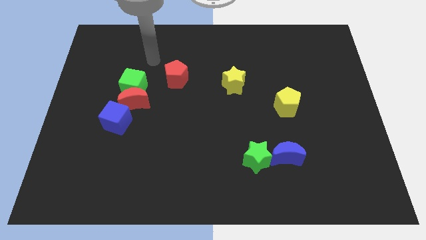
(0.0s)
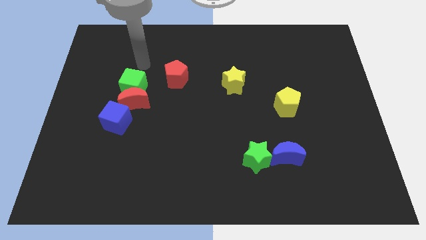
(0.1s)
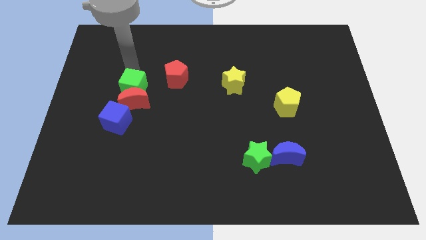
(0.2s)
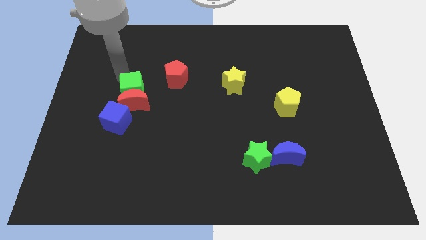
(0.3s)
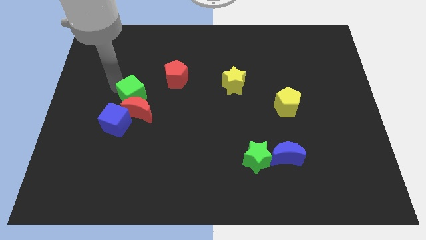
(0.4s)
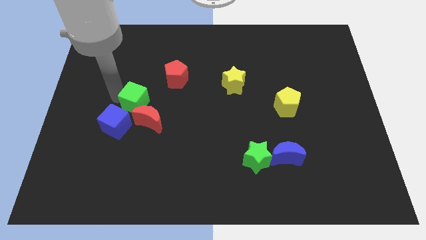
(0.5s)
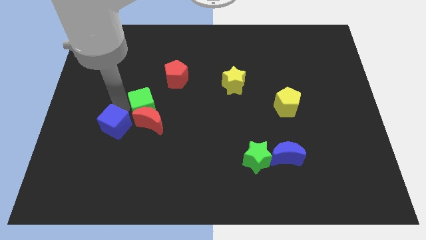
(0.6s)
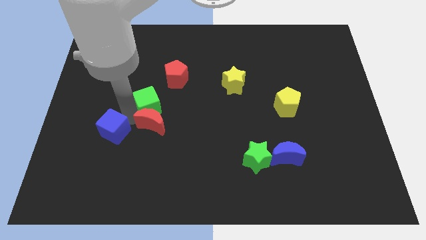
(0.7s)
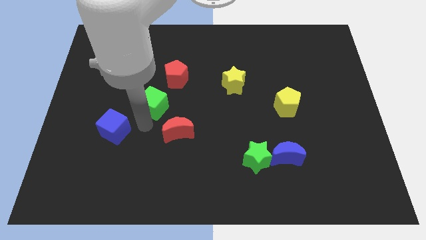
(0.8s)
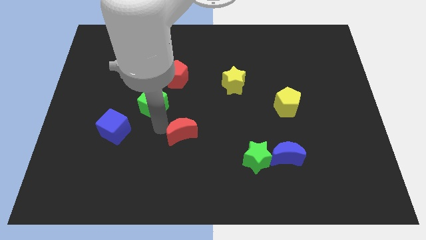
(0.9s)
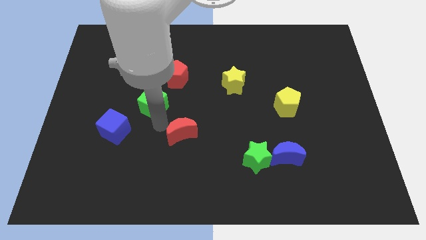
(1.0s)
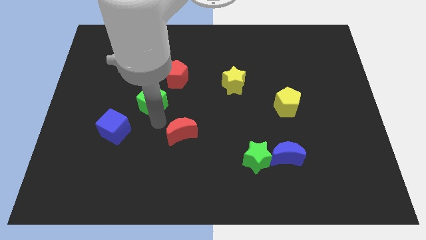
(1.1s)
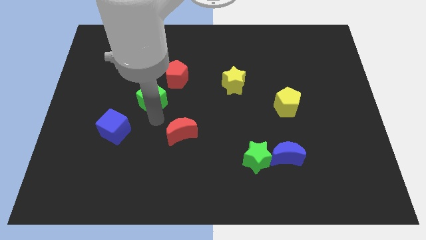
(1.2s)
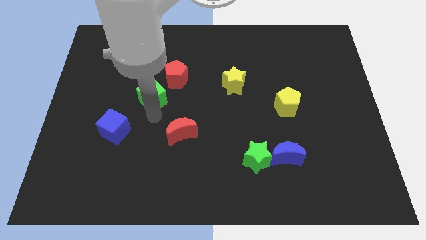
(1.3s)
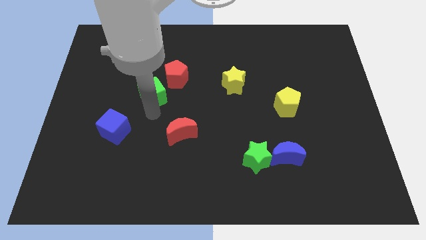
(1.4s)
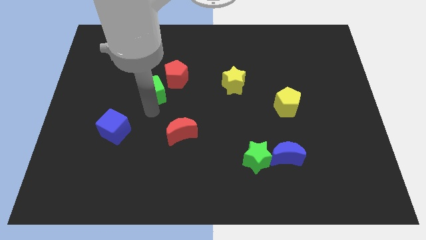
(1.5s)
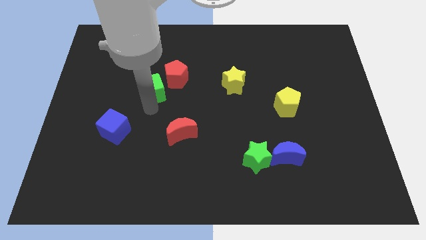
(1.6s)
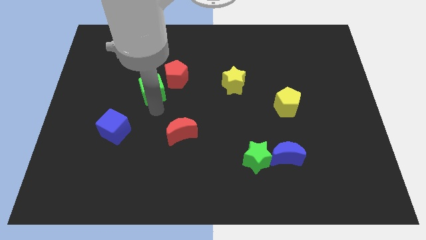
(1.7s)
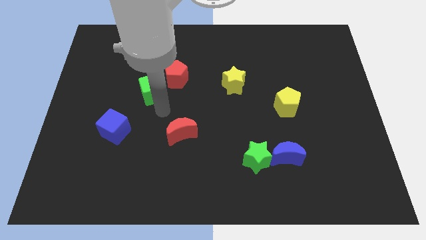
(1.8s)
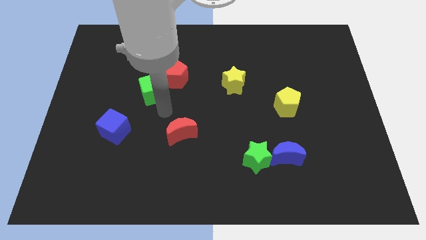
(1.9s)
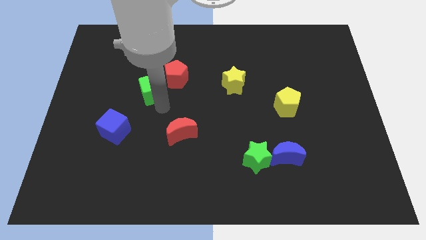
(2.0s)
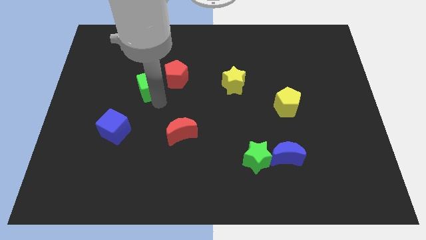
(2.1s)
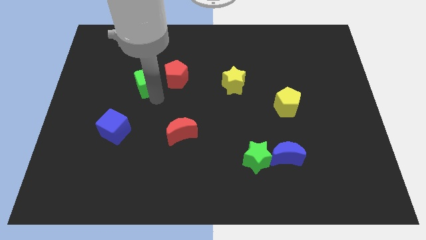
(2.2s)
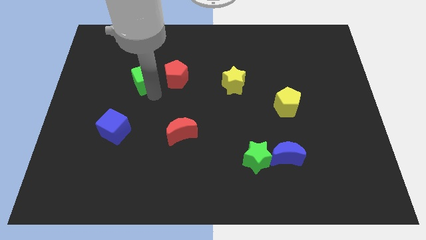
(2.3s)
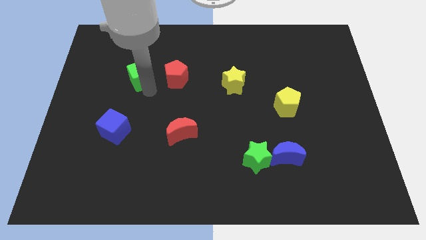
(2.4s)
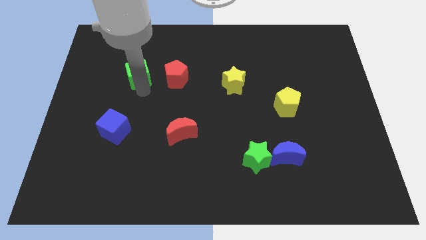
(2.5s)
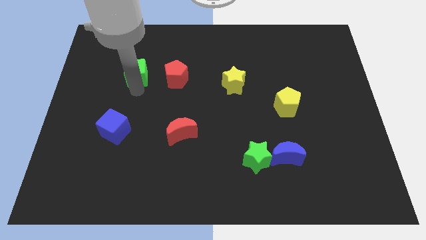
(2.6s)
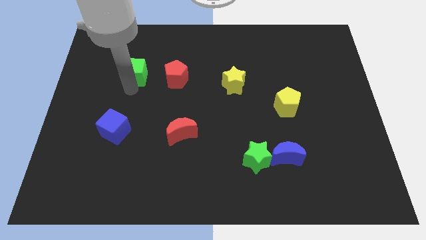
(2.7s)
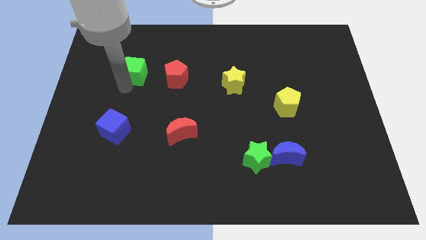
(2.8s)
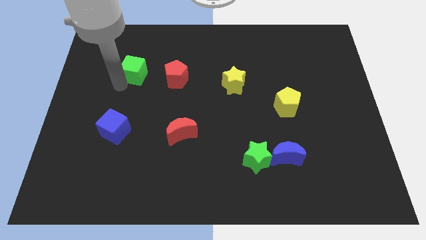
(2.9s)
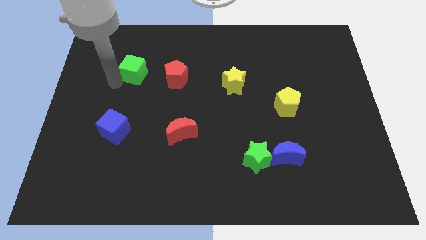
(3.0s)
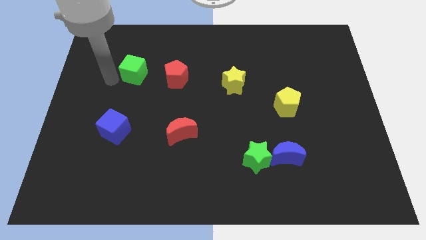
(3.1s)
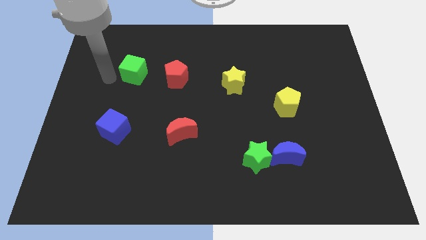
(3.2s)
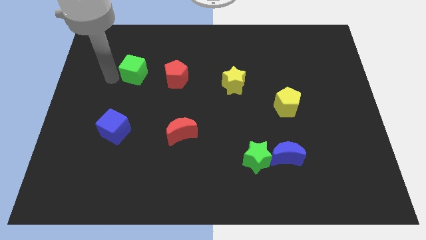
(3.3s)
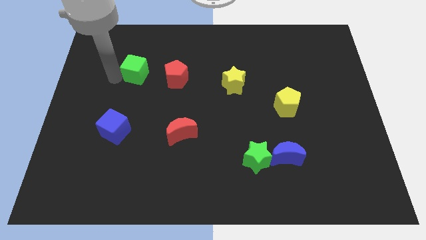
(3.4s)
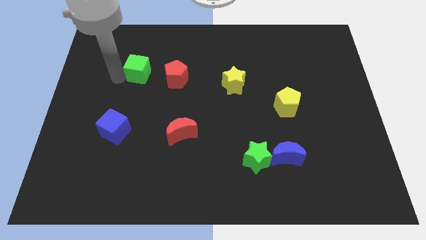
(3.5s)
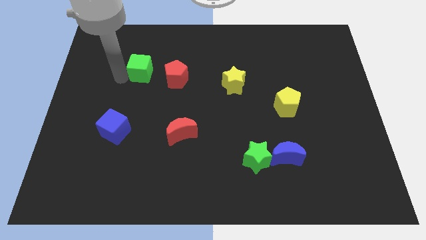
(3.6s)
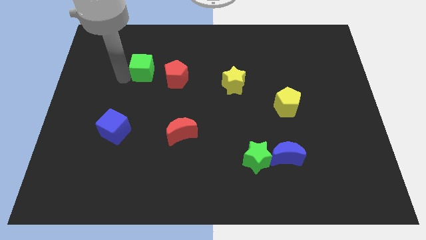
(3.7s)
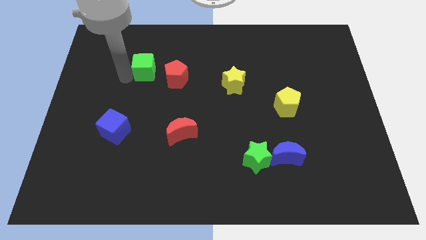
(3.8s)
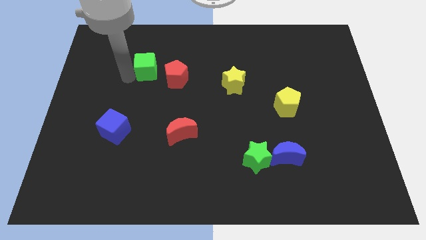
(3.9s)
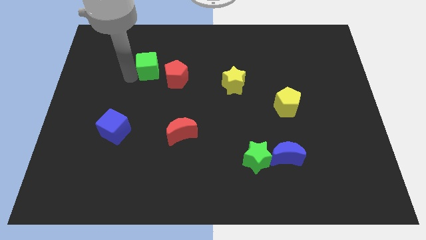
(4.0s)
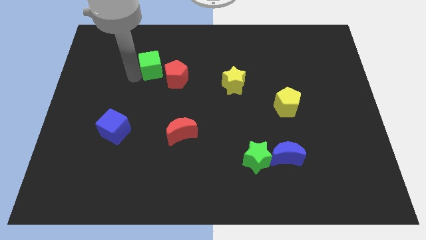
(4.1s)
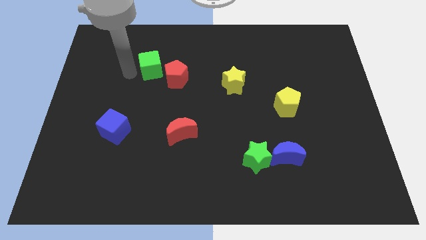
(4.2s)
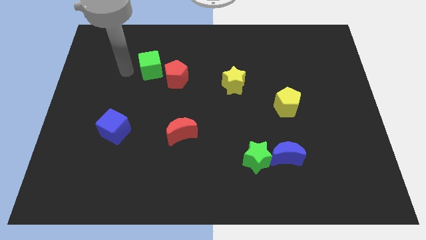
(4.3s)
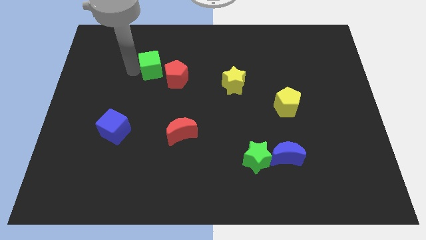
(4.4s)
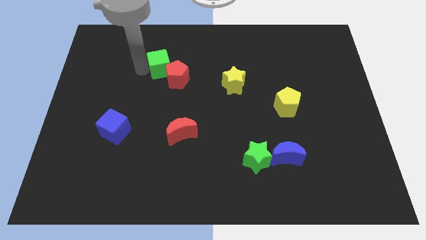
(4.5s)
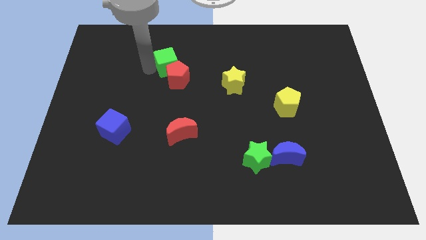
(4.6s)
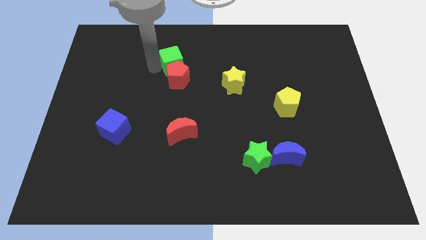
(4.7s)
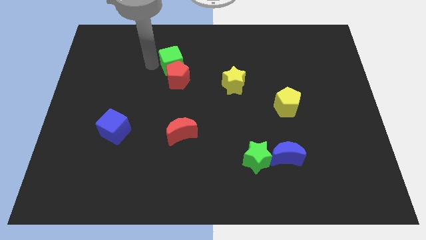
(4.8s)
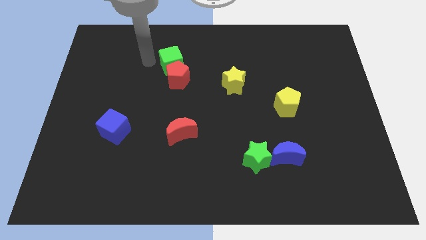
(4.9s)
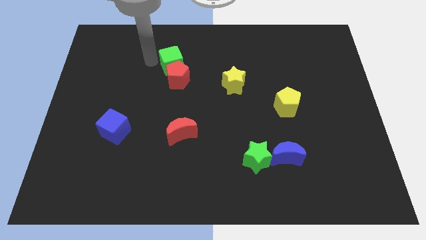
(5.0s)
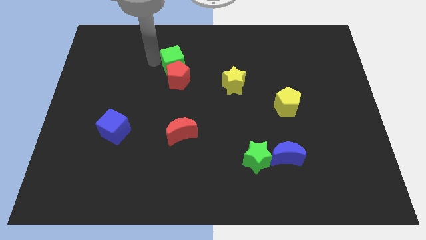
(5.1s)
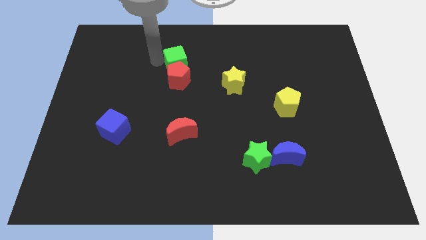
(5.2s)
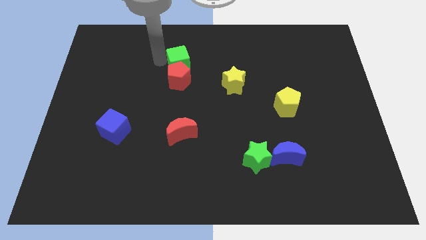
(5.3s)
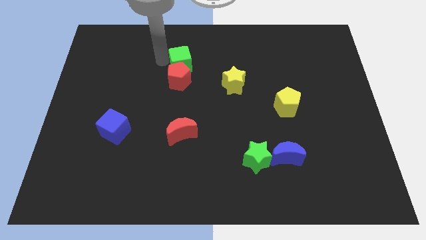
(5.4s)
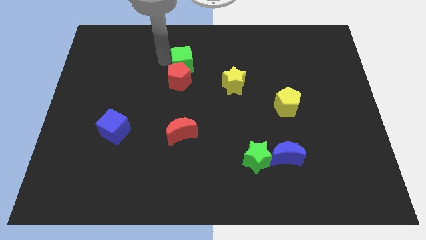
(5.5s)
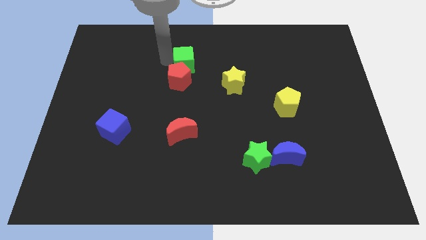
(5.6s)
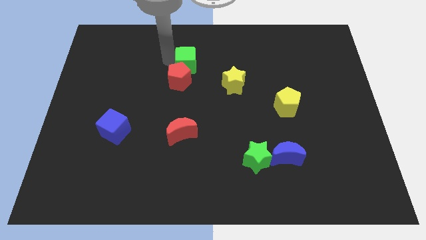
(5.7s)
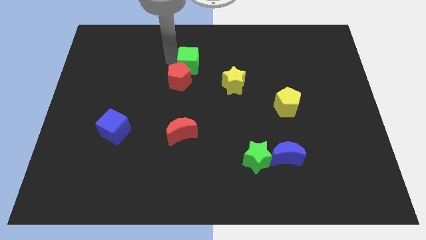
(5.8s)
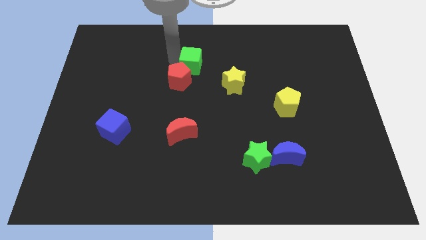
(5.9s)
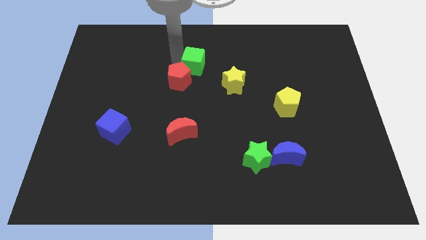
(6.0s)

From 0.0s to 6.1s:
slide the green cube to the top left side of the yellow star

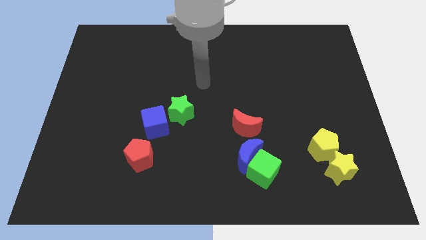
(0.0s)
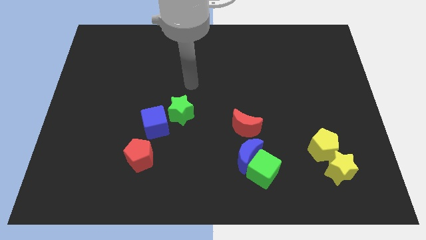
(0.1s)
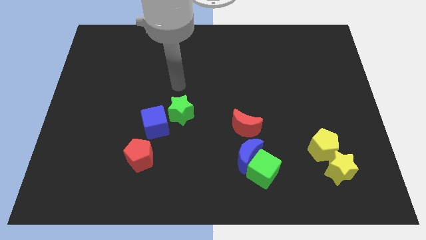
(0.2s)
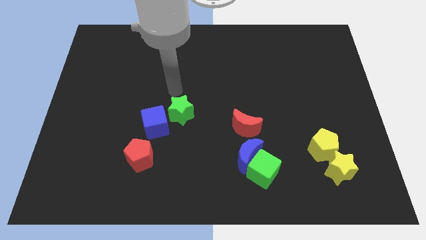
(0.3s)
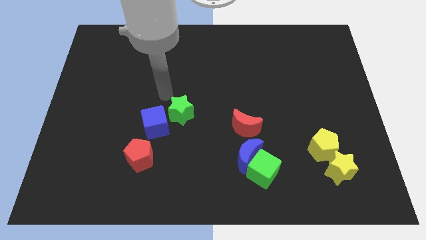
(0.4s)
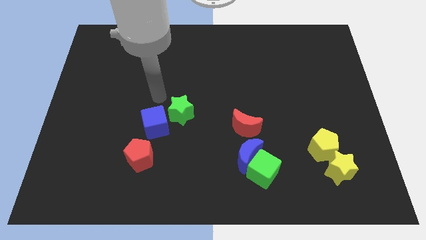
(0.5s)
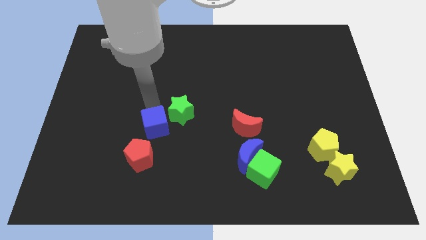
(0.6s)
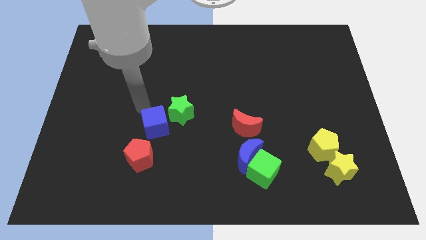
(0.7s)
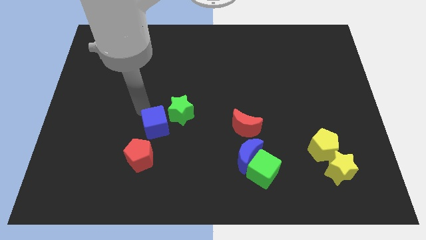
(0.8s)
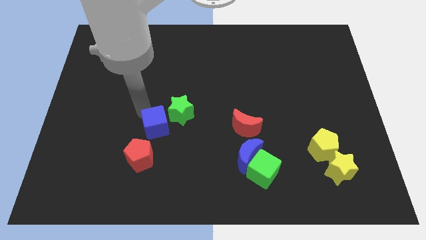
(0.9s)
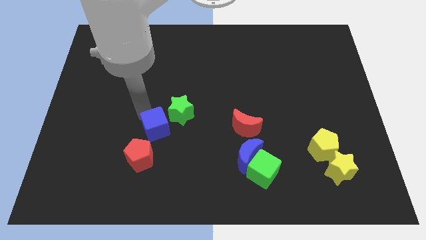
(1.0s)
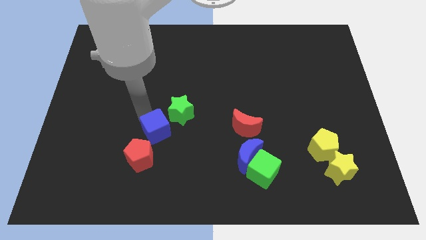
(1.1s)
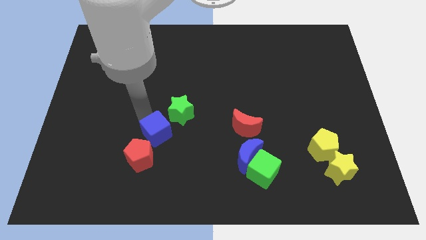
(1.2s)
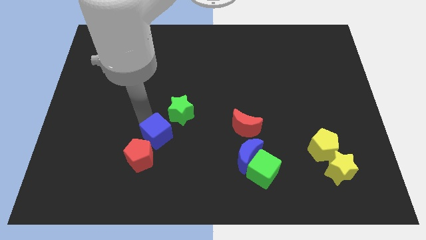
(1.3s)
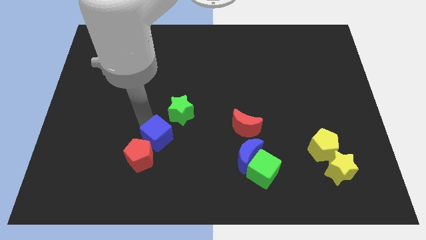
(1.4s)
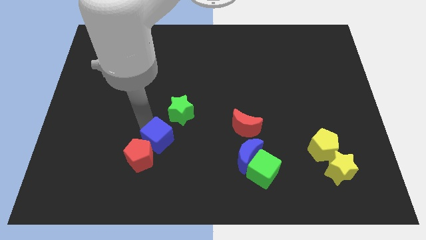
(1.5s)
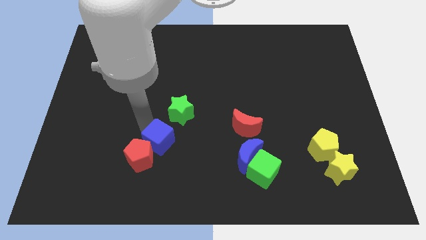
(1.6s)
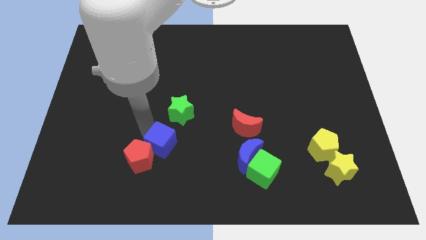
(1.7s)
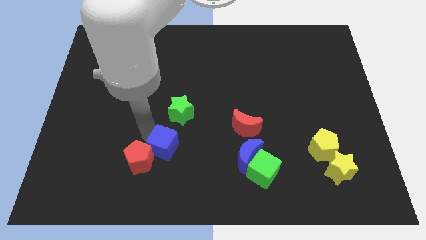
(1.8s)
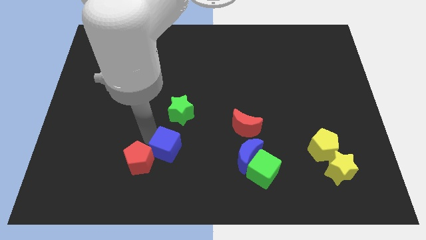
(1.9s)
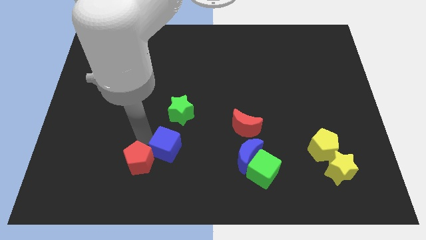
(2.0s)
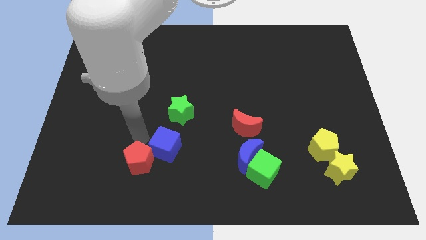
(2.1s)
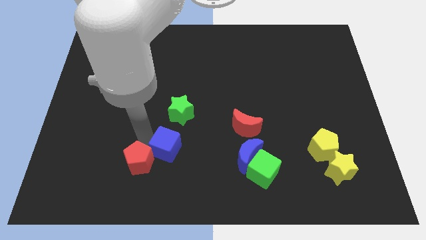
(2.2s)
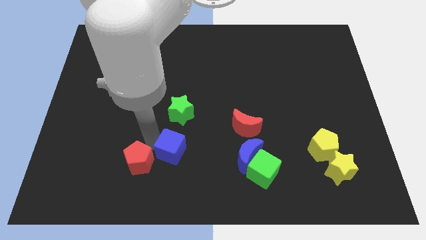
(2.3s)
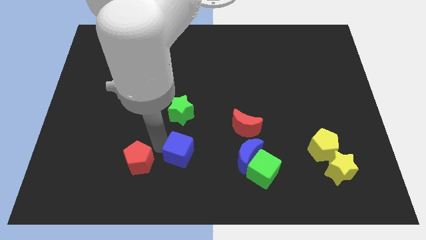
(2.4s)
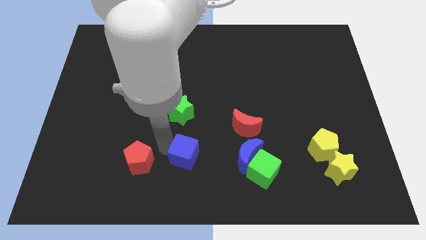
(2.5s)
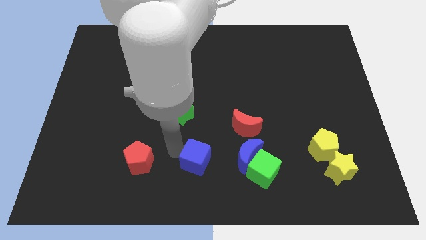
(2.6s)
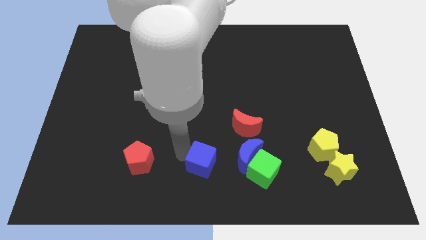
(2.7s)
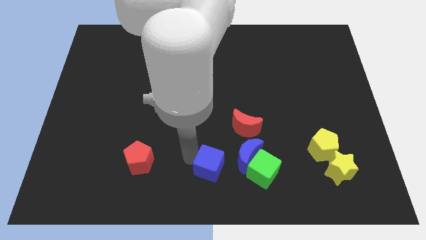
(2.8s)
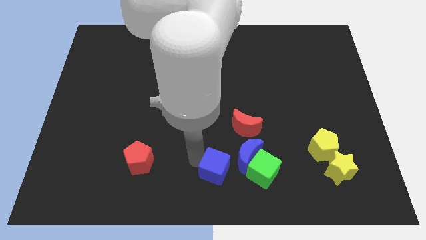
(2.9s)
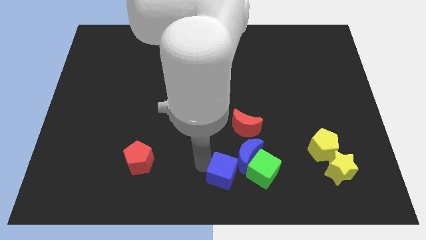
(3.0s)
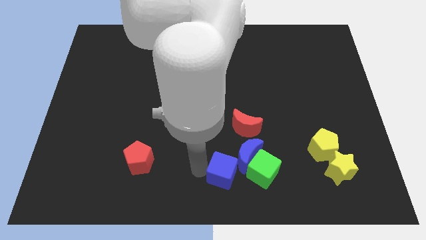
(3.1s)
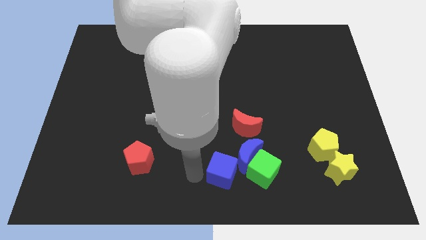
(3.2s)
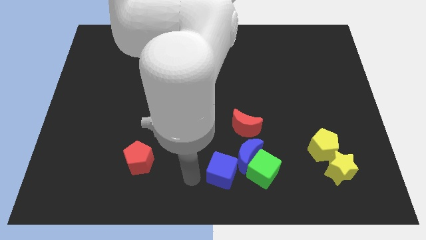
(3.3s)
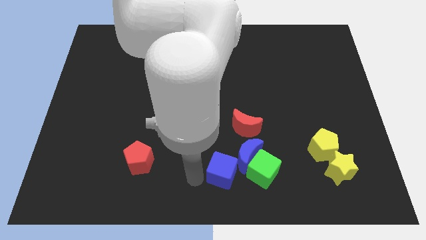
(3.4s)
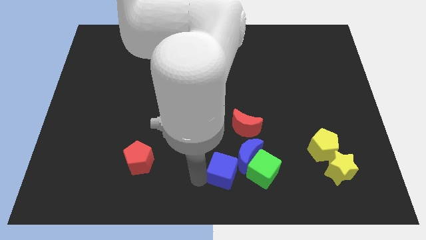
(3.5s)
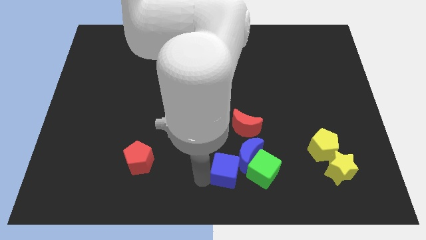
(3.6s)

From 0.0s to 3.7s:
put the blue cube to the bottom side of the red moon
